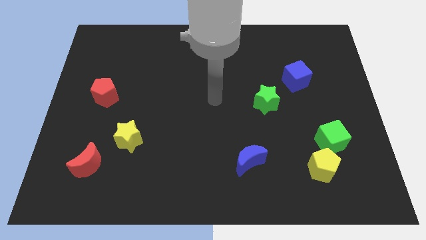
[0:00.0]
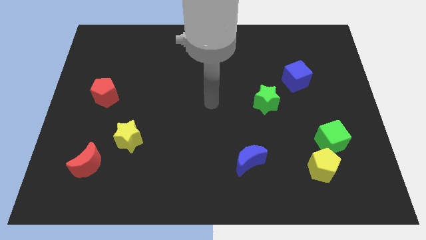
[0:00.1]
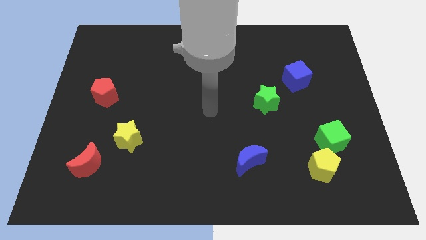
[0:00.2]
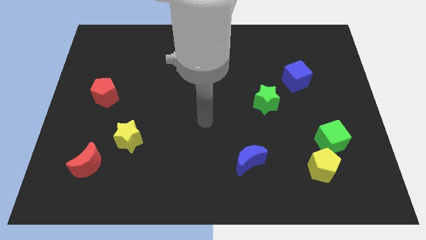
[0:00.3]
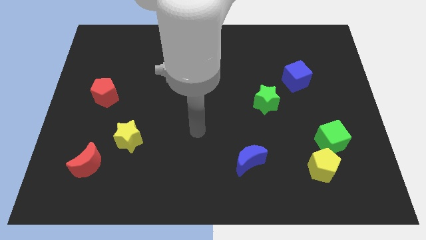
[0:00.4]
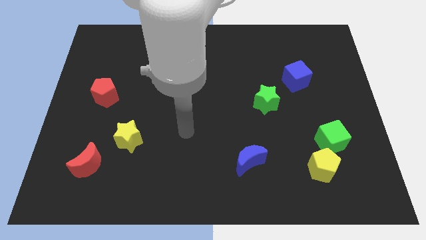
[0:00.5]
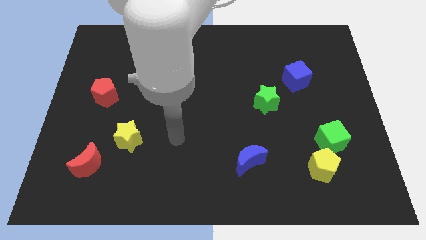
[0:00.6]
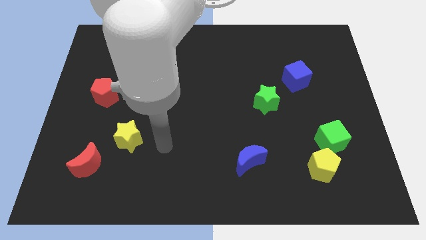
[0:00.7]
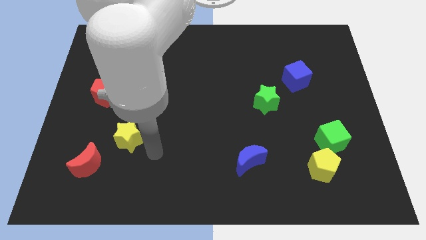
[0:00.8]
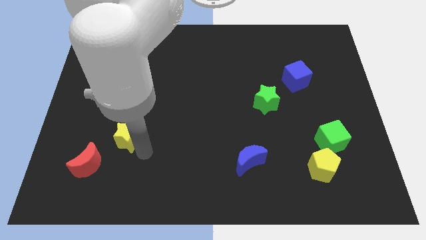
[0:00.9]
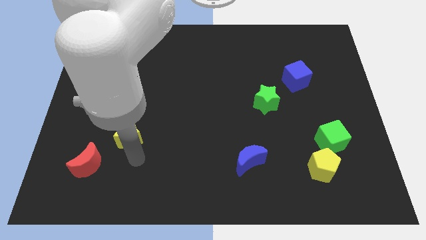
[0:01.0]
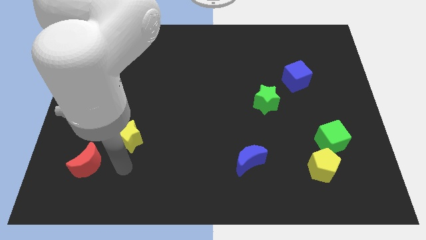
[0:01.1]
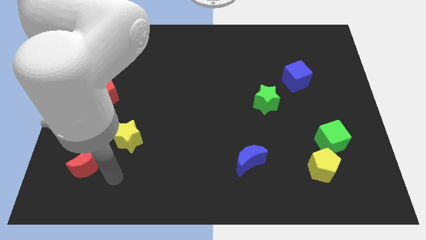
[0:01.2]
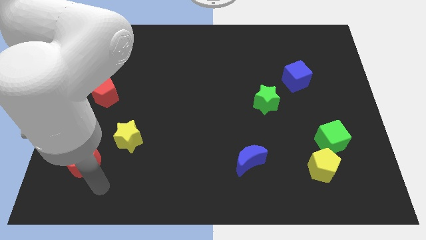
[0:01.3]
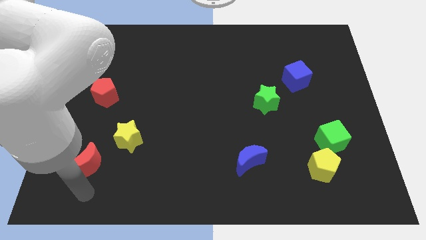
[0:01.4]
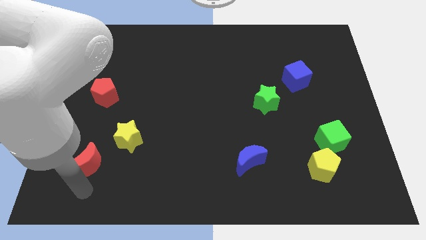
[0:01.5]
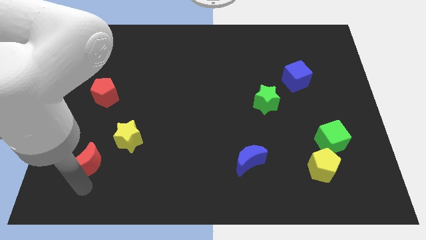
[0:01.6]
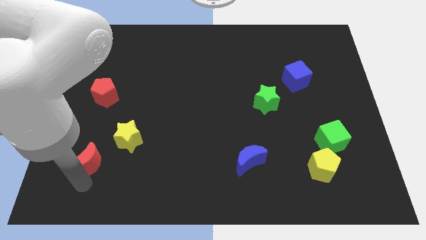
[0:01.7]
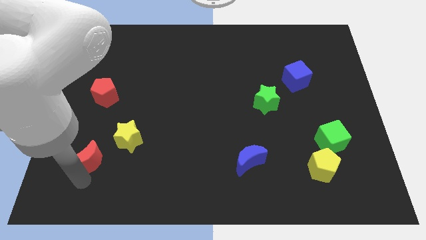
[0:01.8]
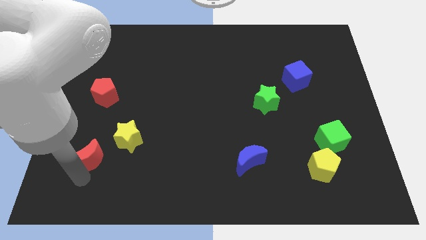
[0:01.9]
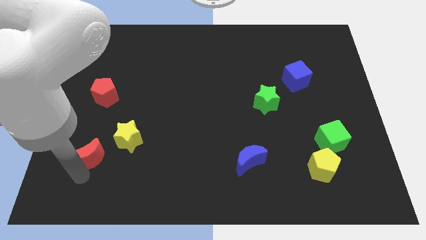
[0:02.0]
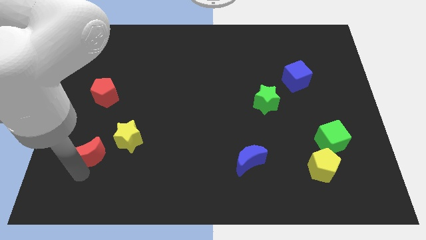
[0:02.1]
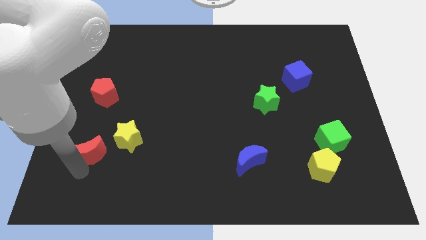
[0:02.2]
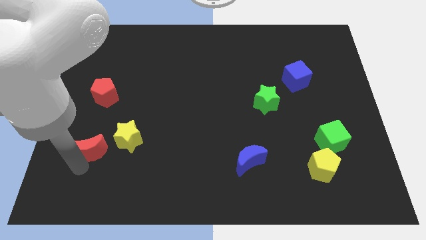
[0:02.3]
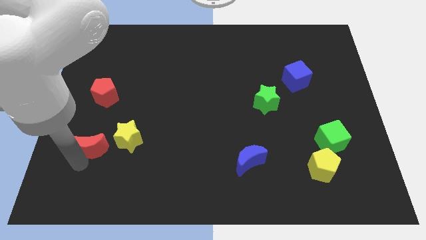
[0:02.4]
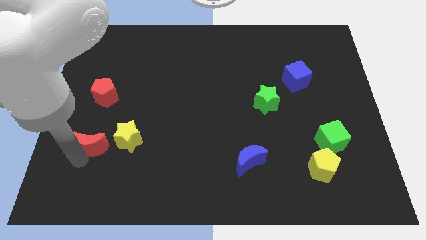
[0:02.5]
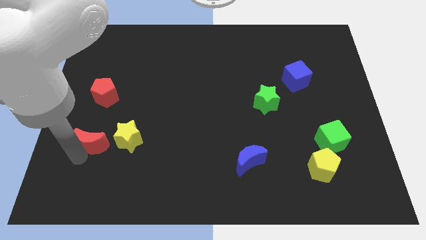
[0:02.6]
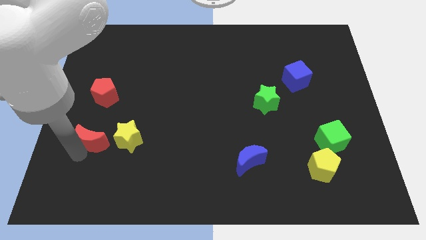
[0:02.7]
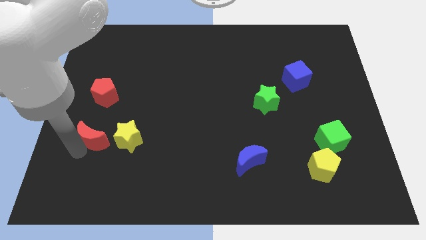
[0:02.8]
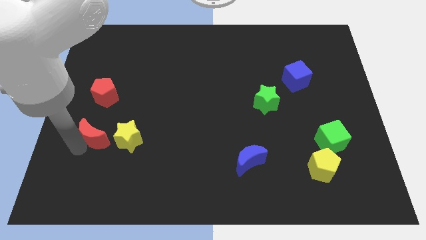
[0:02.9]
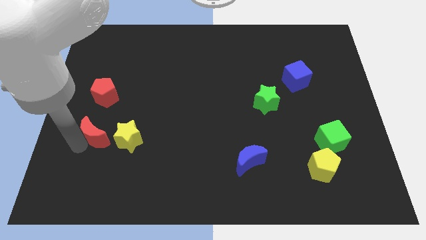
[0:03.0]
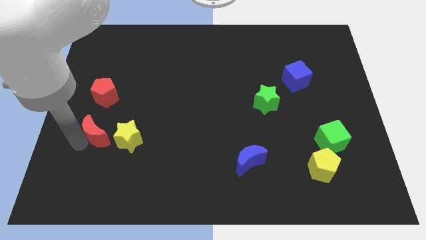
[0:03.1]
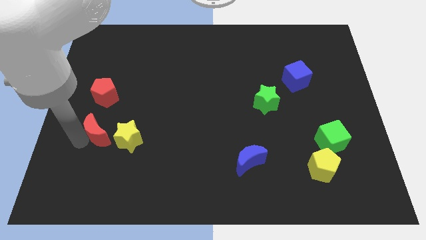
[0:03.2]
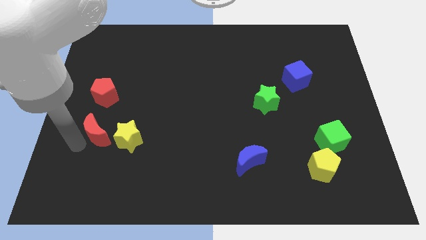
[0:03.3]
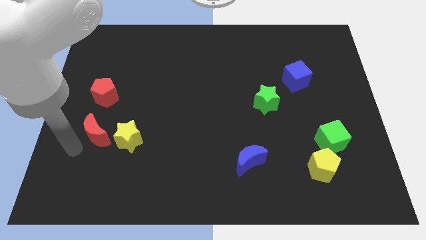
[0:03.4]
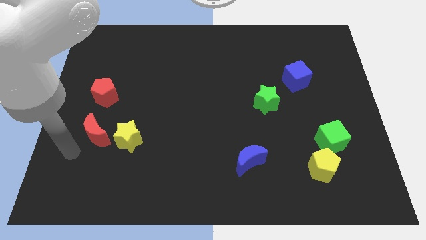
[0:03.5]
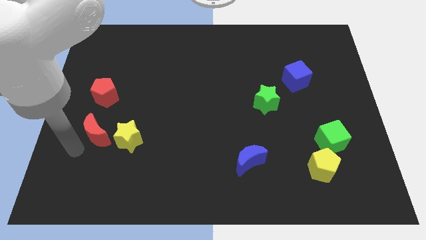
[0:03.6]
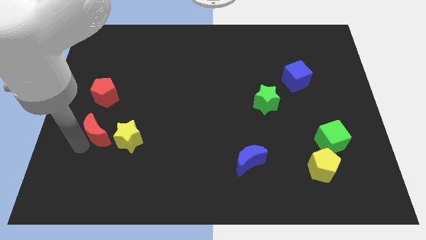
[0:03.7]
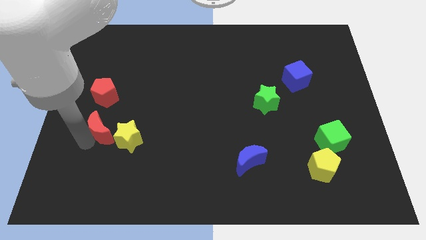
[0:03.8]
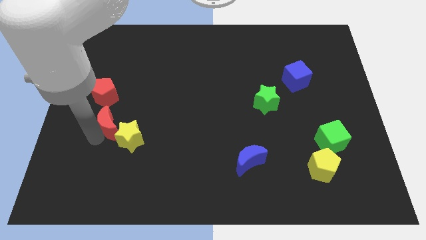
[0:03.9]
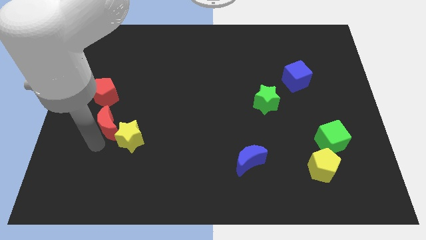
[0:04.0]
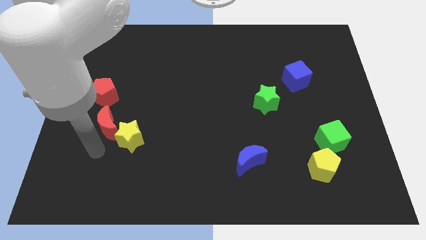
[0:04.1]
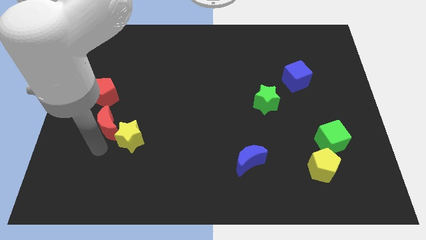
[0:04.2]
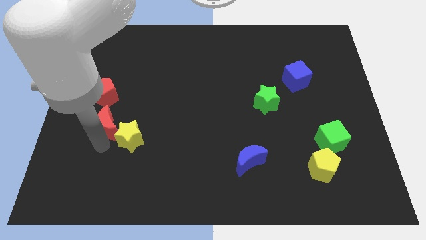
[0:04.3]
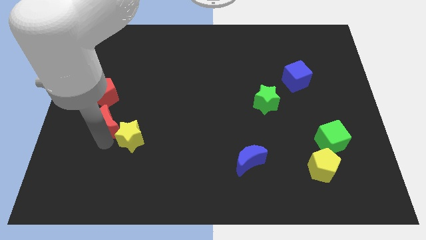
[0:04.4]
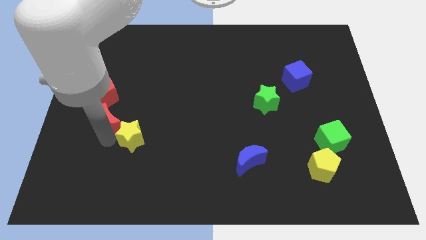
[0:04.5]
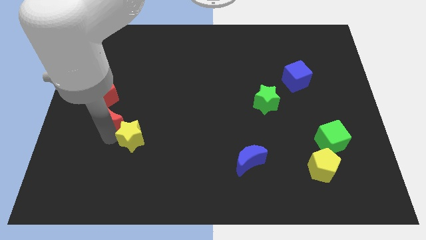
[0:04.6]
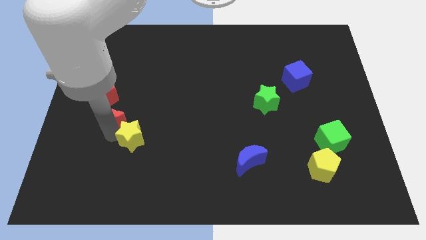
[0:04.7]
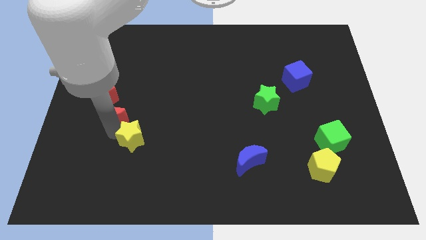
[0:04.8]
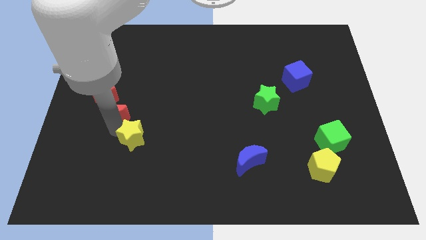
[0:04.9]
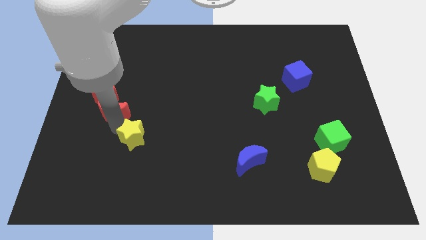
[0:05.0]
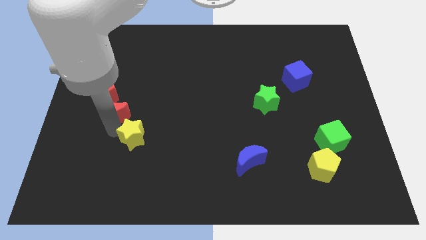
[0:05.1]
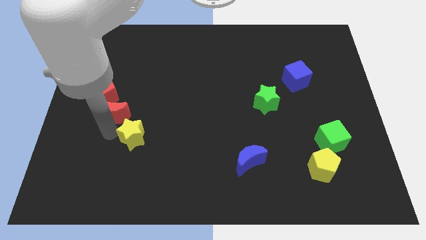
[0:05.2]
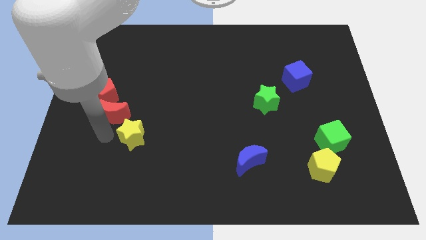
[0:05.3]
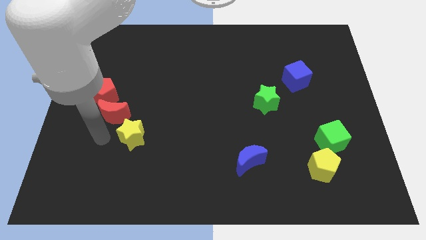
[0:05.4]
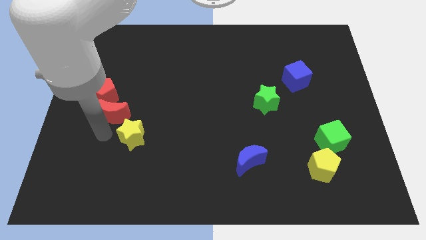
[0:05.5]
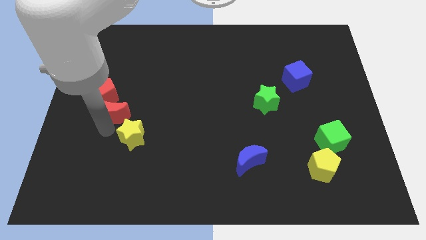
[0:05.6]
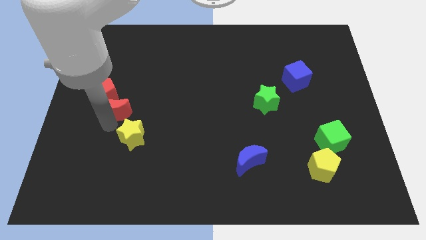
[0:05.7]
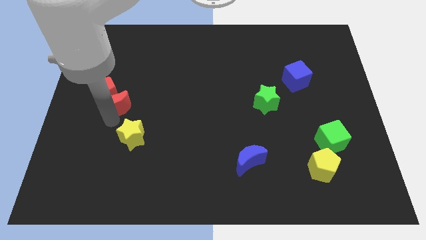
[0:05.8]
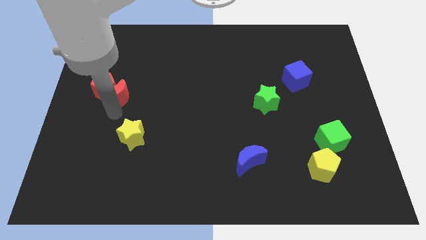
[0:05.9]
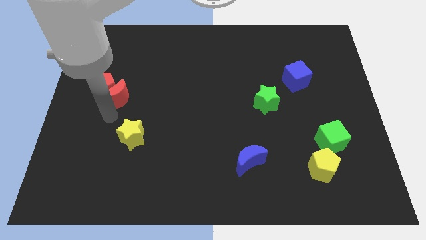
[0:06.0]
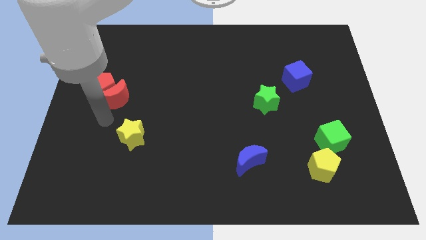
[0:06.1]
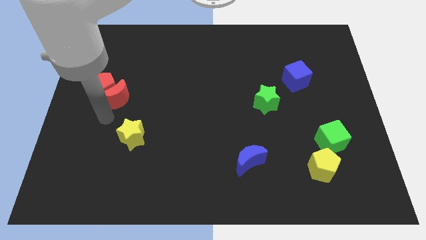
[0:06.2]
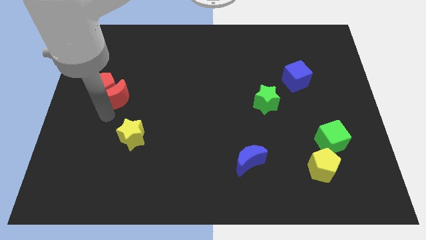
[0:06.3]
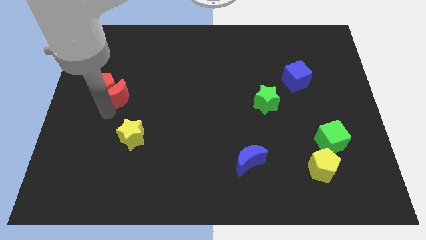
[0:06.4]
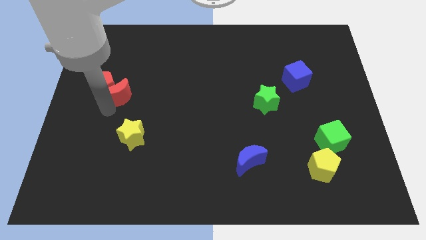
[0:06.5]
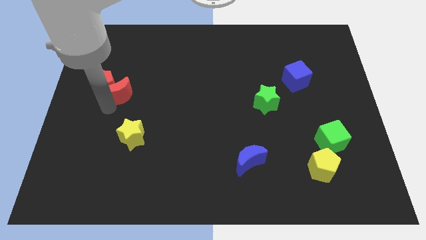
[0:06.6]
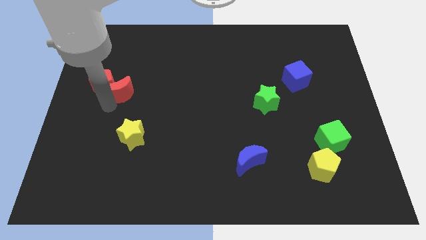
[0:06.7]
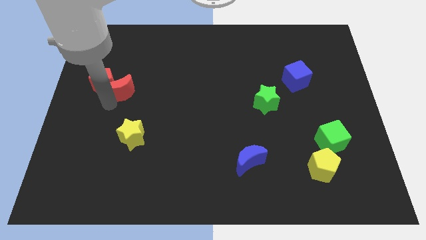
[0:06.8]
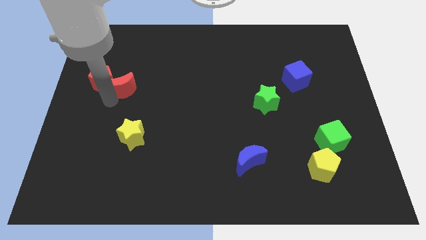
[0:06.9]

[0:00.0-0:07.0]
push the red moon upwards

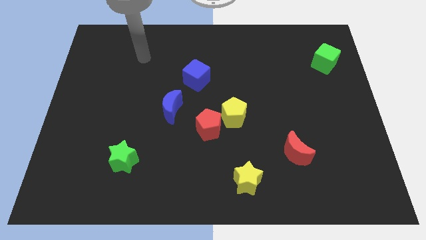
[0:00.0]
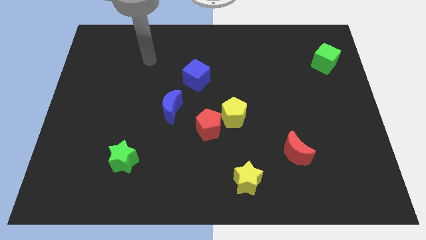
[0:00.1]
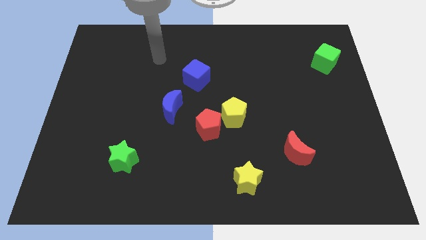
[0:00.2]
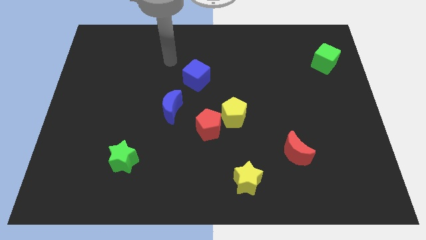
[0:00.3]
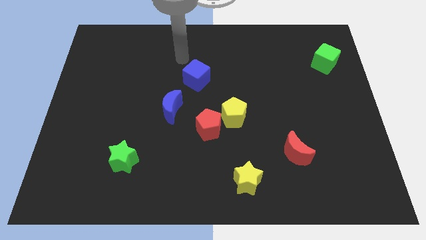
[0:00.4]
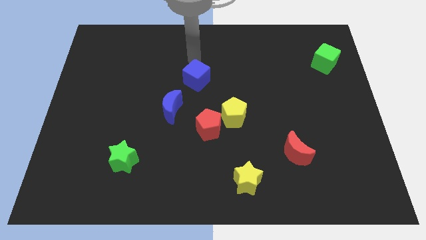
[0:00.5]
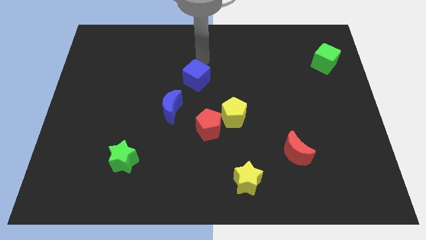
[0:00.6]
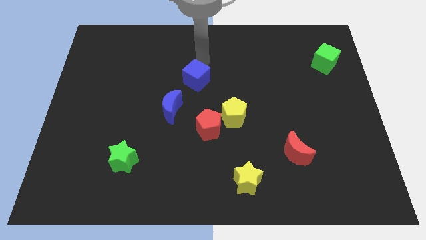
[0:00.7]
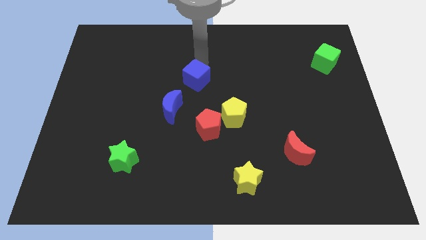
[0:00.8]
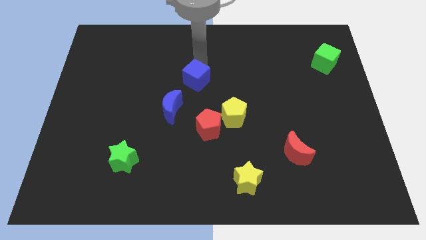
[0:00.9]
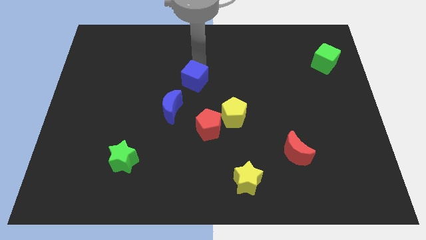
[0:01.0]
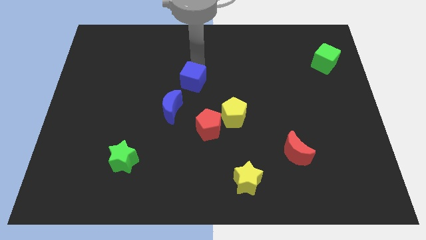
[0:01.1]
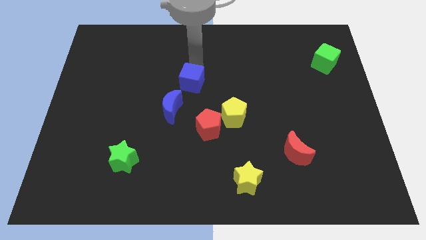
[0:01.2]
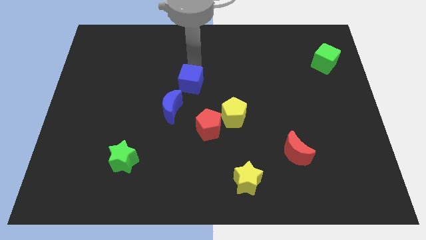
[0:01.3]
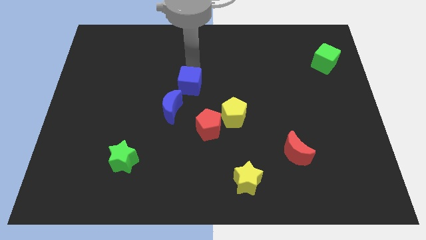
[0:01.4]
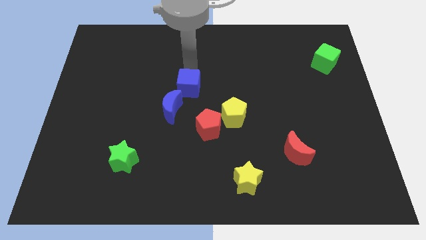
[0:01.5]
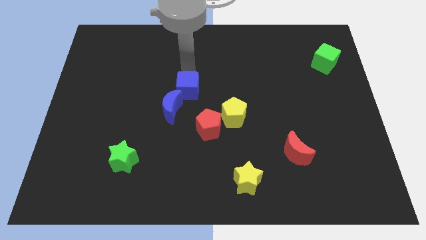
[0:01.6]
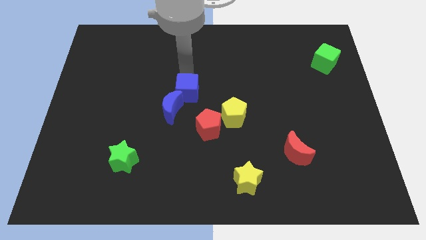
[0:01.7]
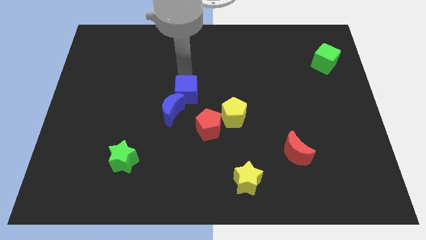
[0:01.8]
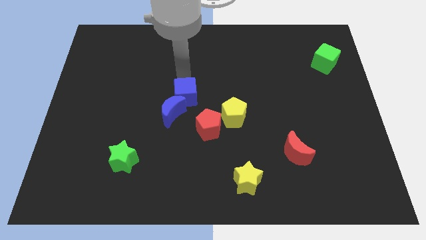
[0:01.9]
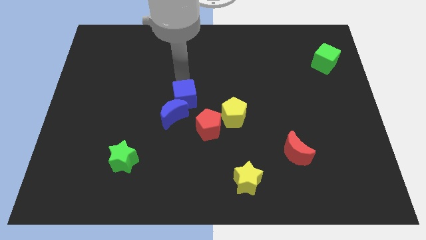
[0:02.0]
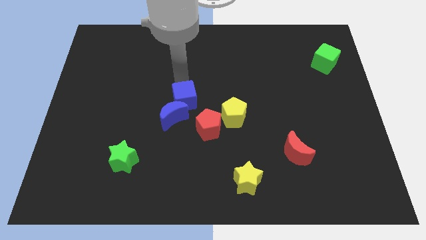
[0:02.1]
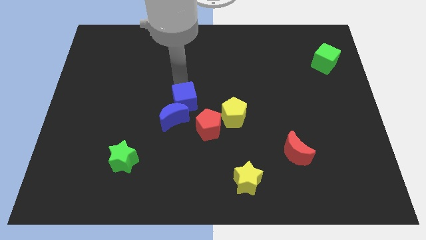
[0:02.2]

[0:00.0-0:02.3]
push the blue cube downwards a little
